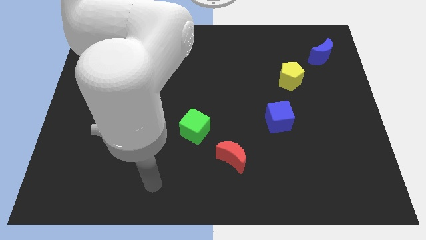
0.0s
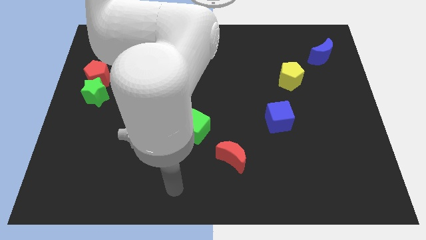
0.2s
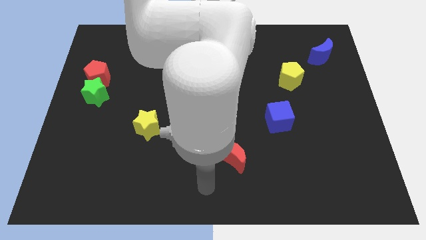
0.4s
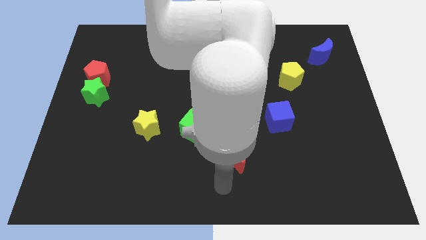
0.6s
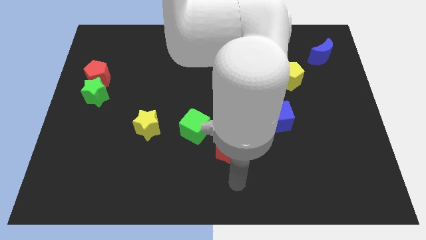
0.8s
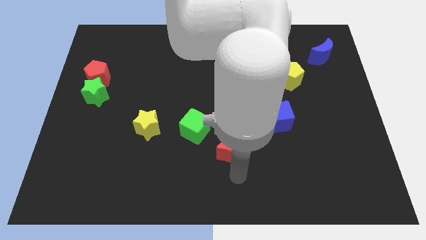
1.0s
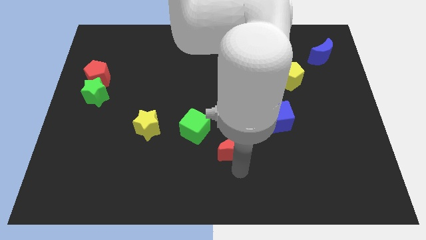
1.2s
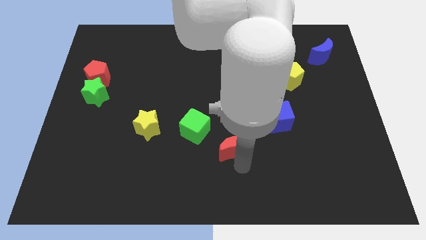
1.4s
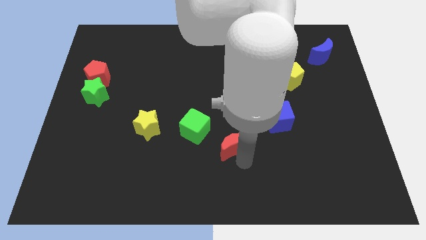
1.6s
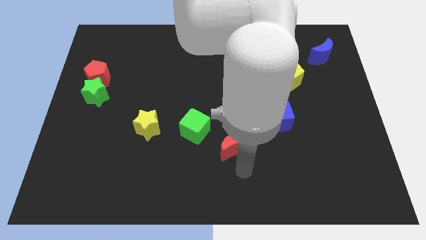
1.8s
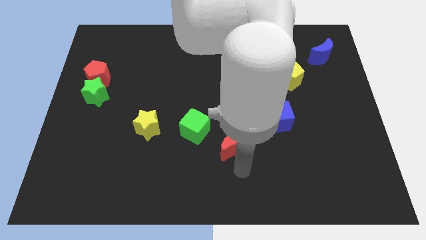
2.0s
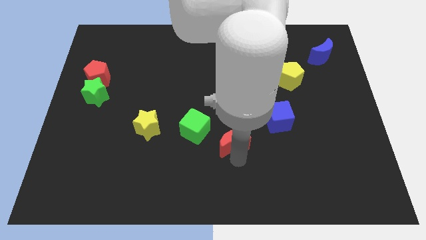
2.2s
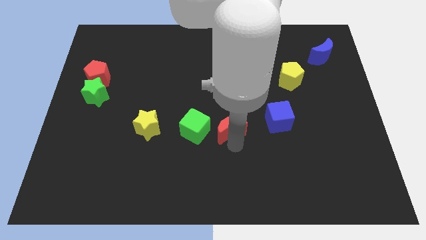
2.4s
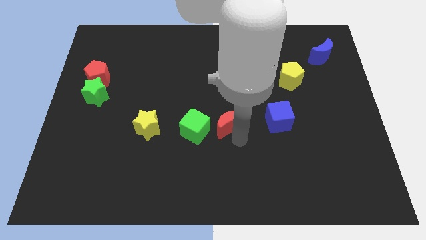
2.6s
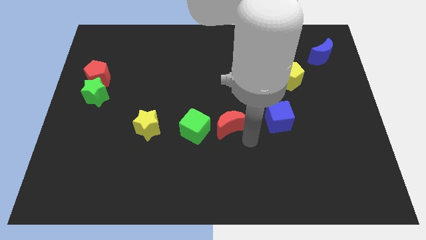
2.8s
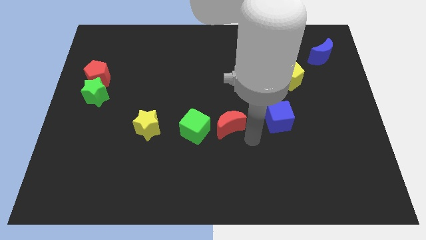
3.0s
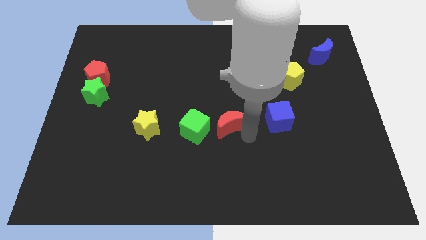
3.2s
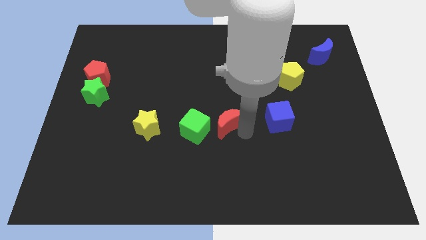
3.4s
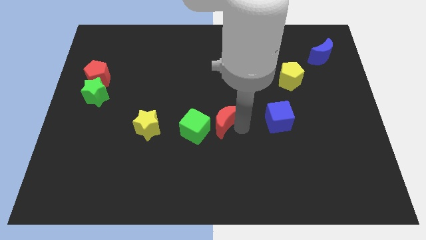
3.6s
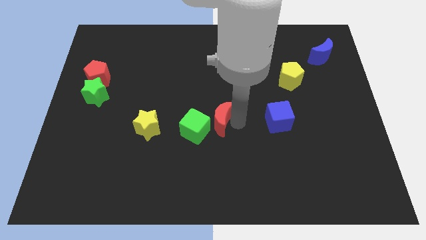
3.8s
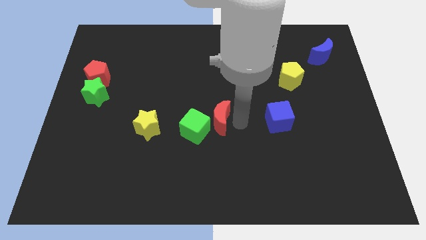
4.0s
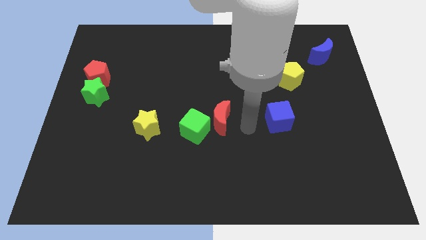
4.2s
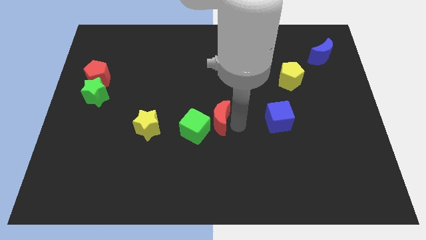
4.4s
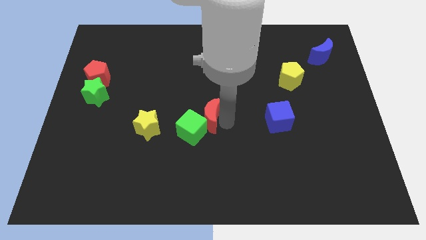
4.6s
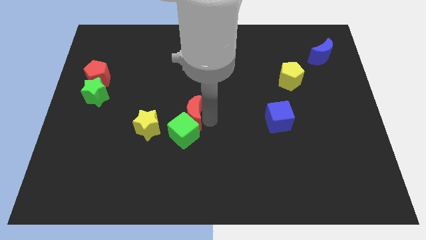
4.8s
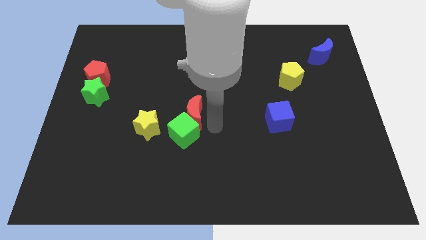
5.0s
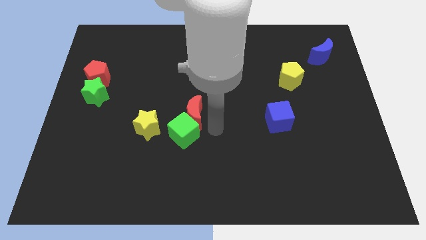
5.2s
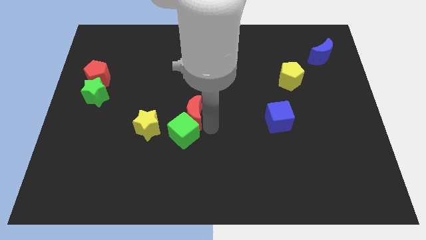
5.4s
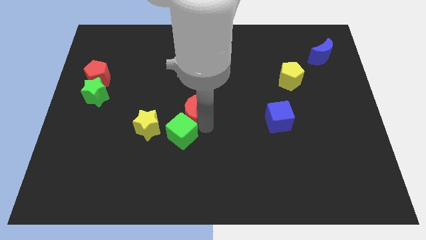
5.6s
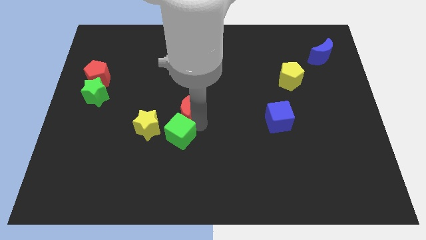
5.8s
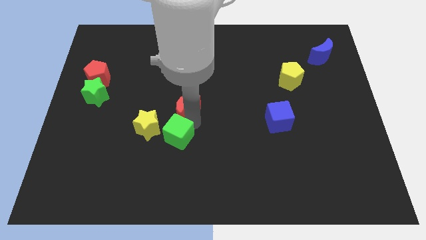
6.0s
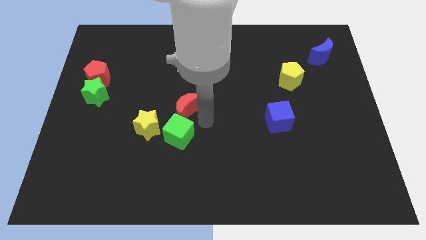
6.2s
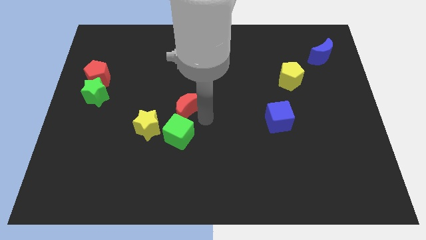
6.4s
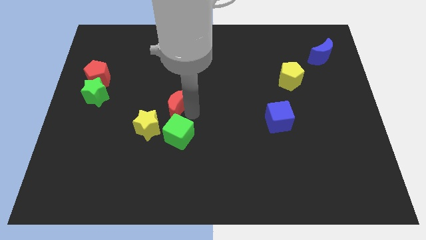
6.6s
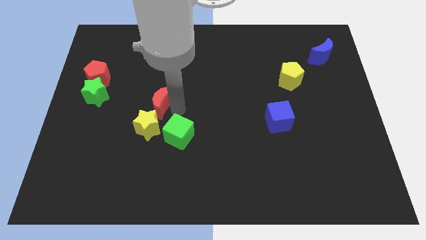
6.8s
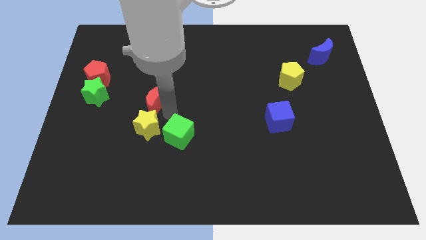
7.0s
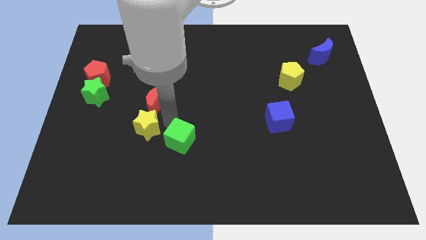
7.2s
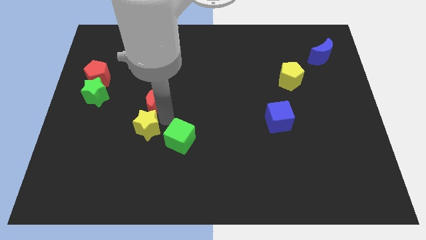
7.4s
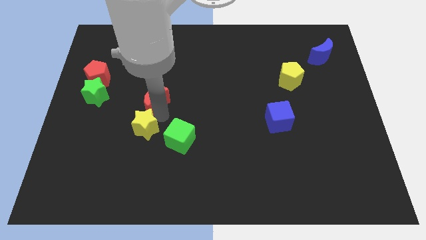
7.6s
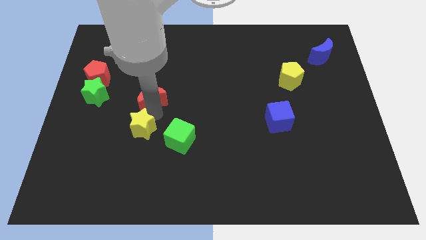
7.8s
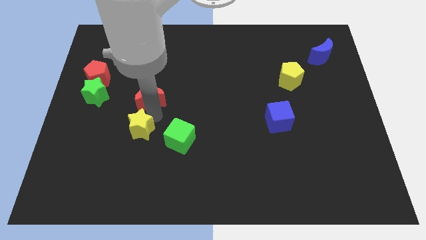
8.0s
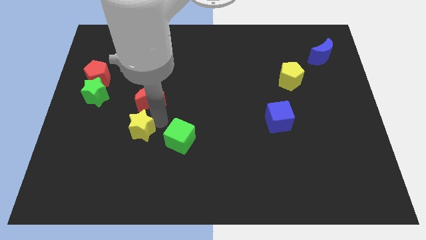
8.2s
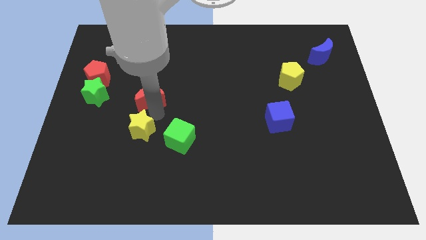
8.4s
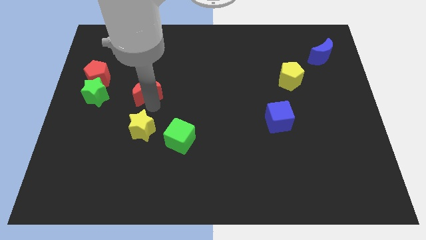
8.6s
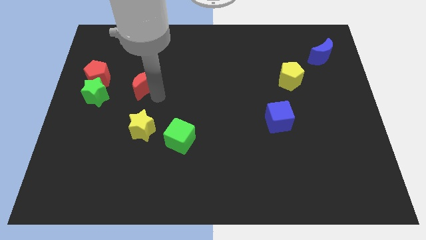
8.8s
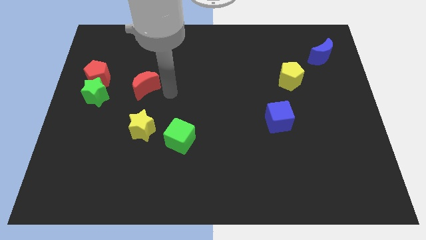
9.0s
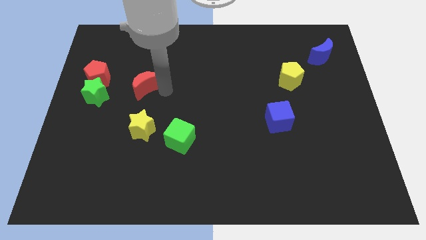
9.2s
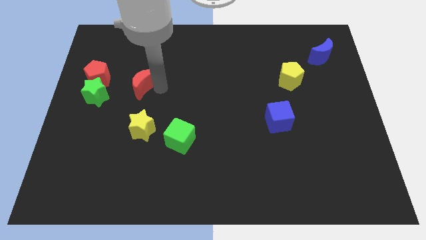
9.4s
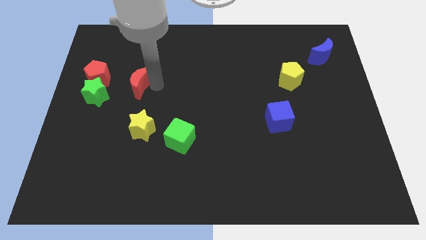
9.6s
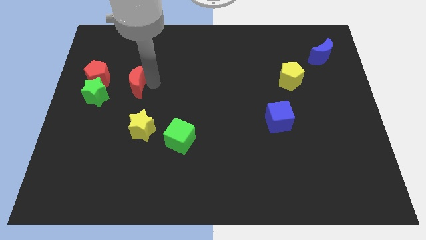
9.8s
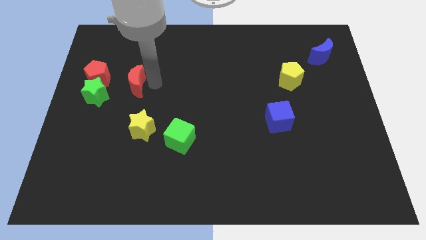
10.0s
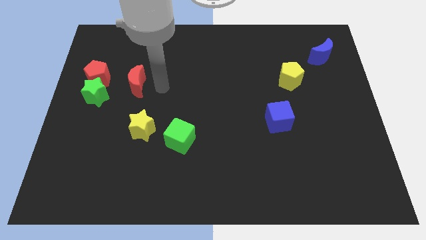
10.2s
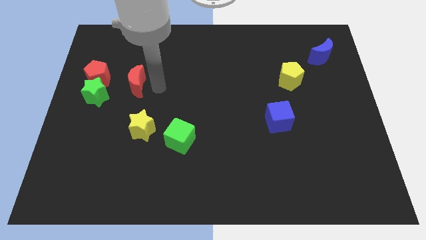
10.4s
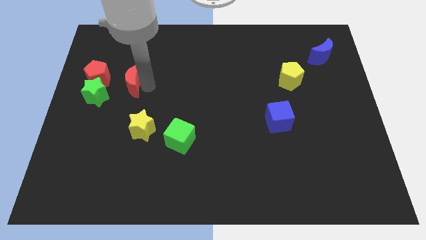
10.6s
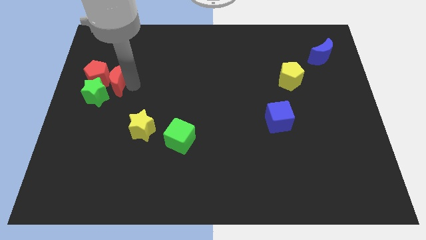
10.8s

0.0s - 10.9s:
slide the red moon next to the red pentagon

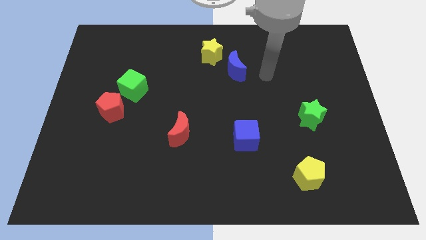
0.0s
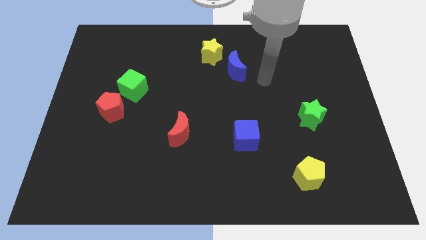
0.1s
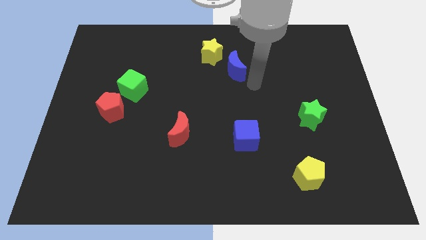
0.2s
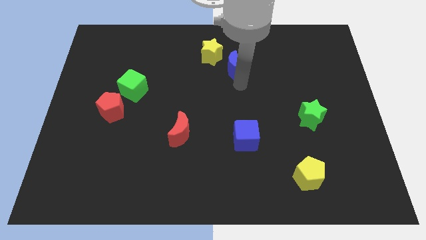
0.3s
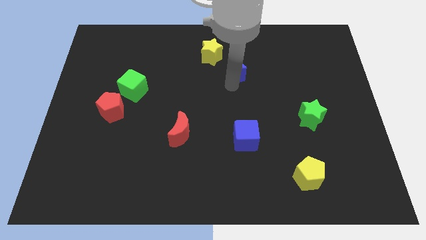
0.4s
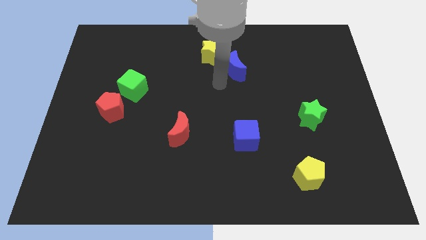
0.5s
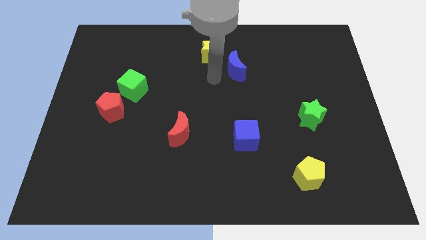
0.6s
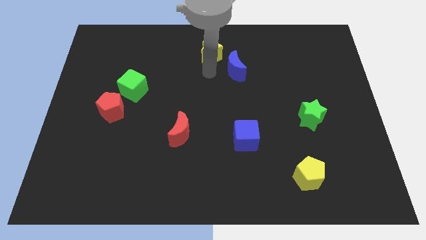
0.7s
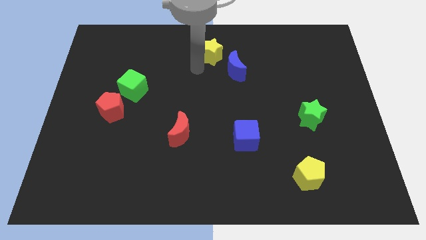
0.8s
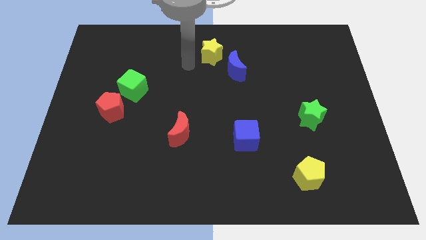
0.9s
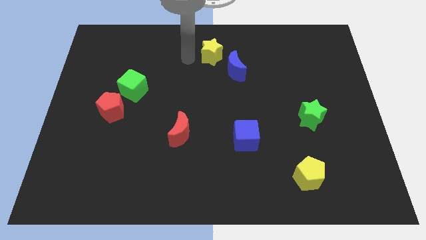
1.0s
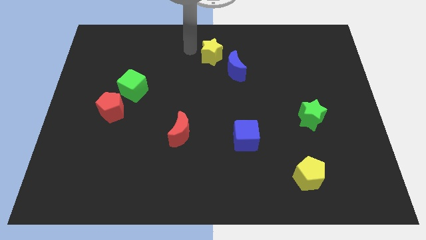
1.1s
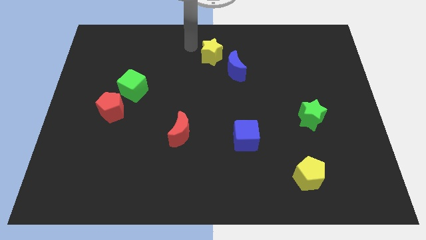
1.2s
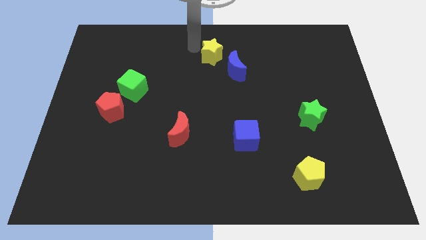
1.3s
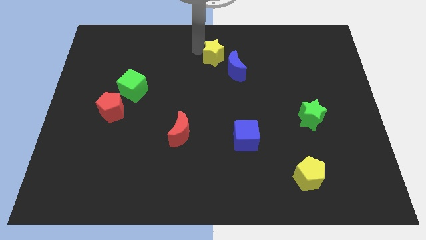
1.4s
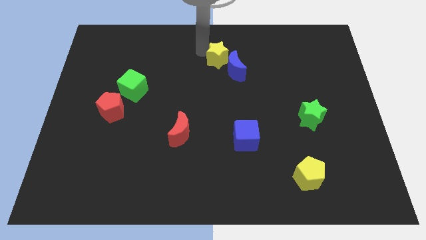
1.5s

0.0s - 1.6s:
put the yellow star close to the blue moon

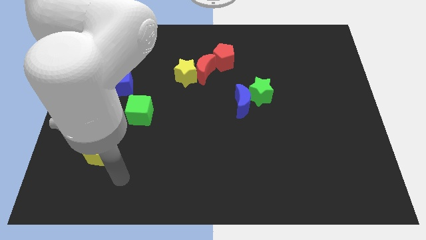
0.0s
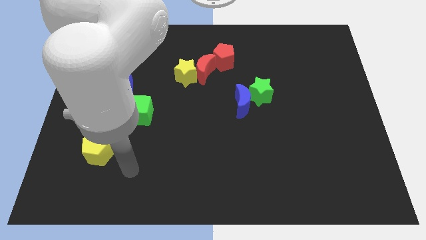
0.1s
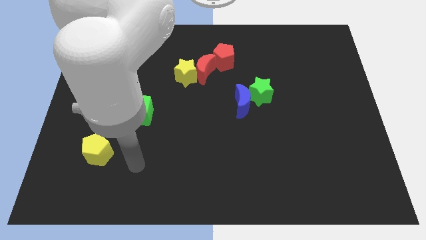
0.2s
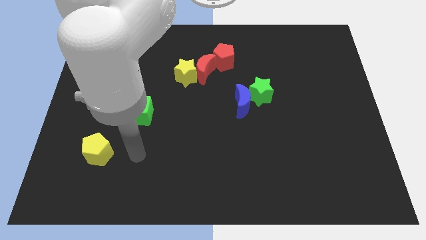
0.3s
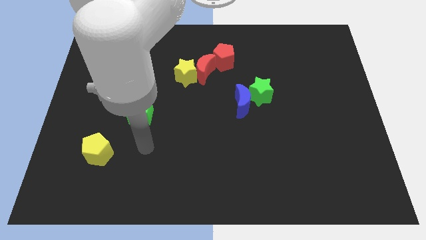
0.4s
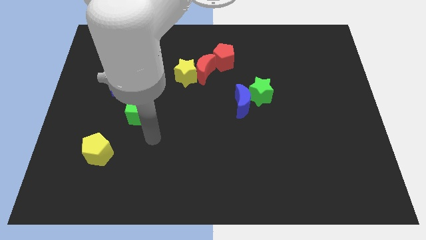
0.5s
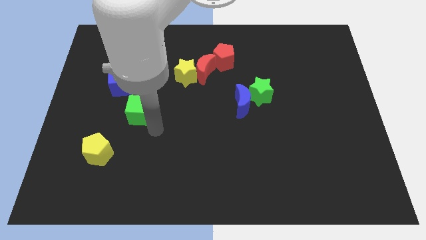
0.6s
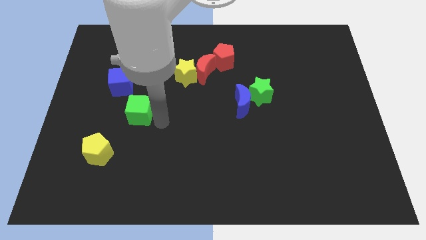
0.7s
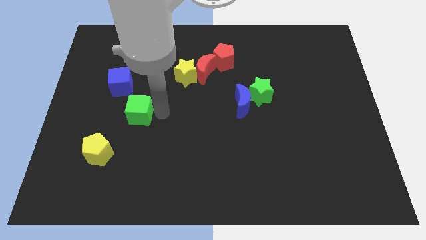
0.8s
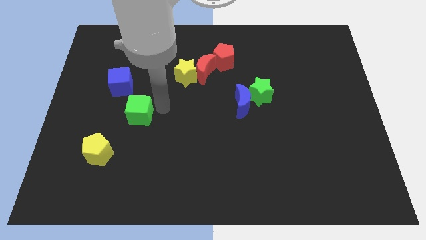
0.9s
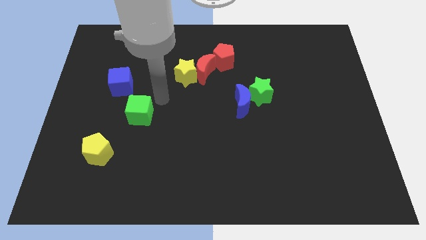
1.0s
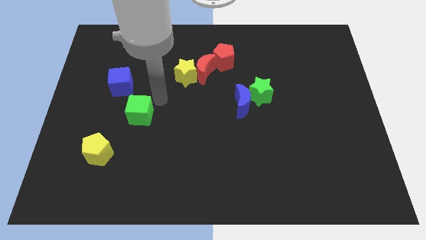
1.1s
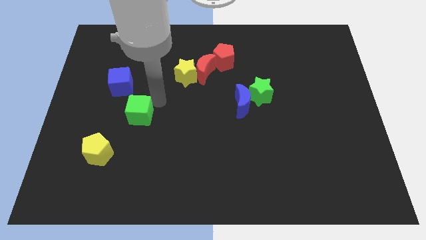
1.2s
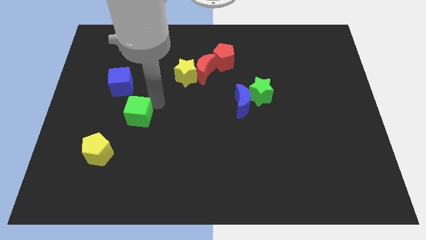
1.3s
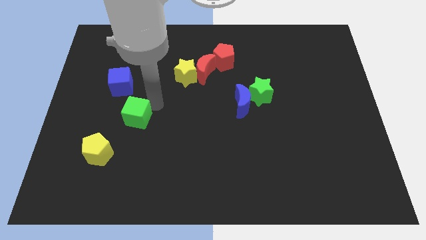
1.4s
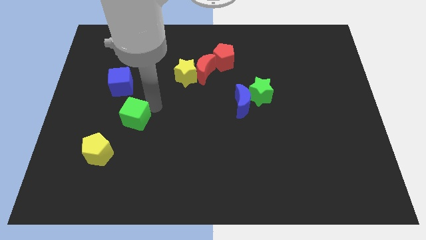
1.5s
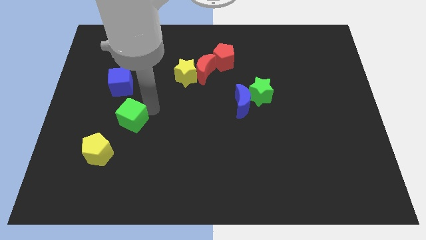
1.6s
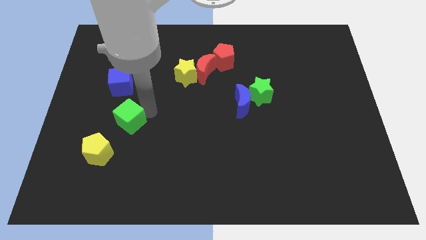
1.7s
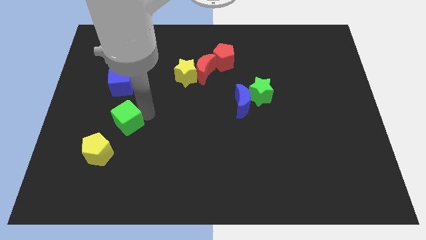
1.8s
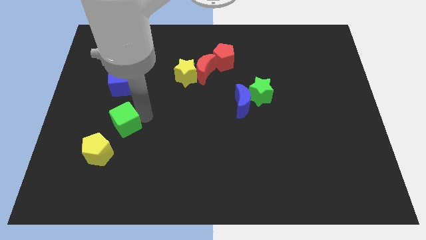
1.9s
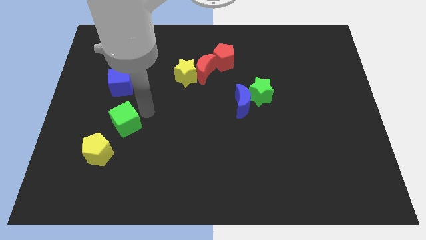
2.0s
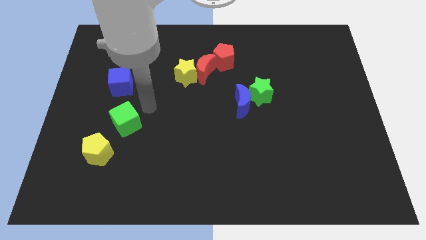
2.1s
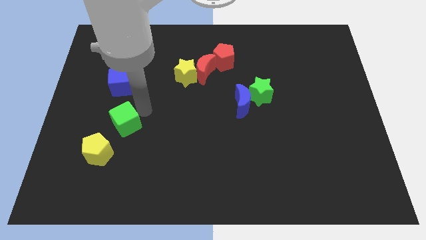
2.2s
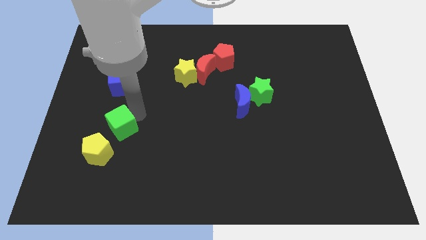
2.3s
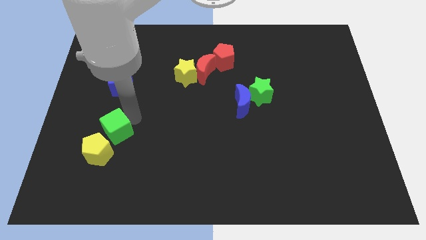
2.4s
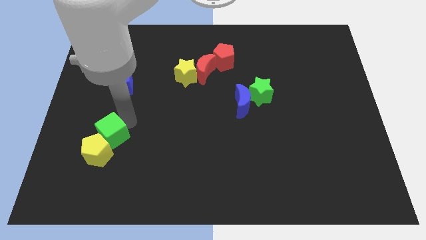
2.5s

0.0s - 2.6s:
slide the green cube close to the yellow pentagon
